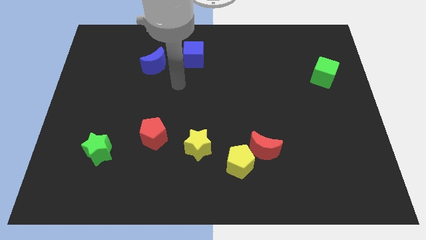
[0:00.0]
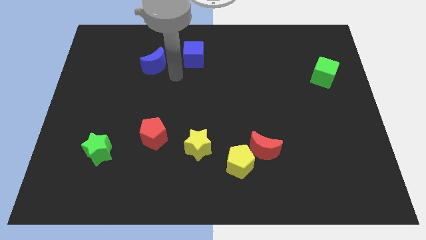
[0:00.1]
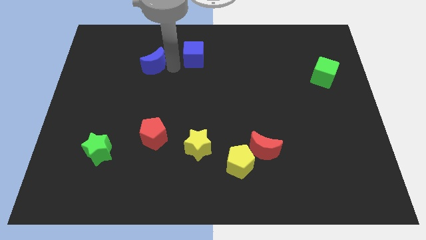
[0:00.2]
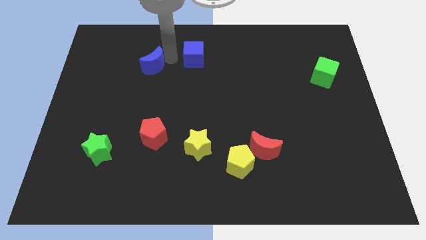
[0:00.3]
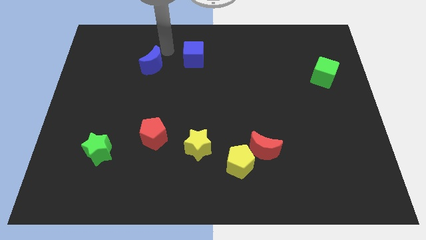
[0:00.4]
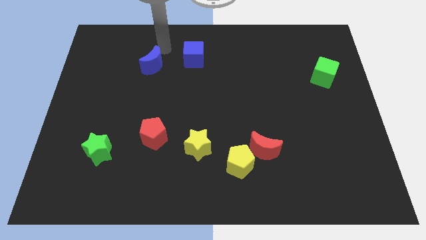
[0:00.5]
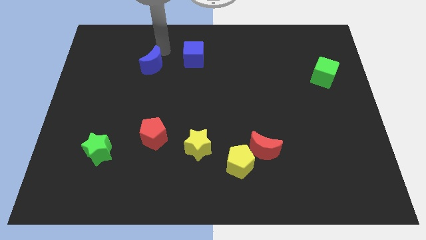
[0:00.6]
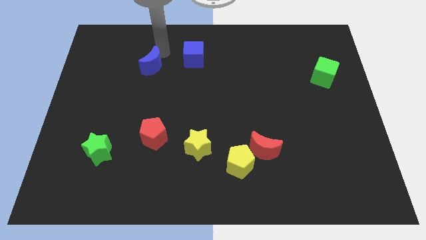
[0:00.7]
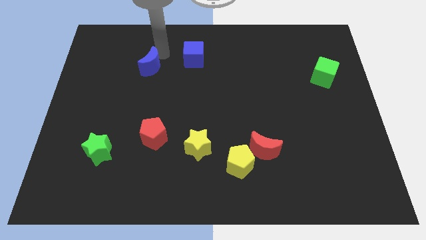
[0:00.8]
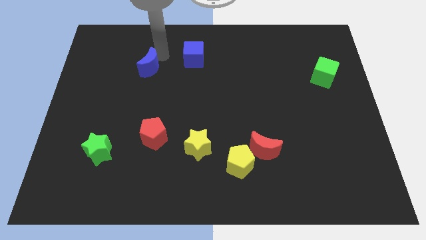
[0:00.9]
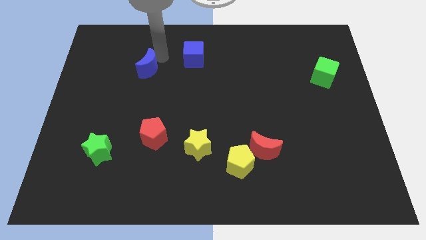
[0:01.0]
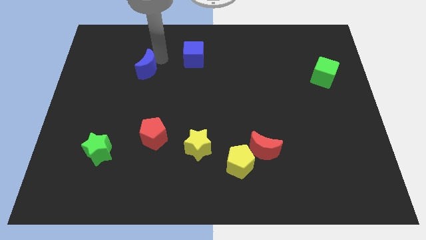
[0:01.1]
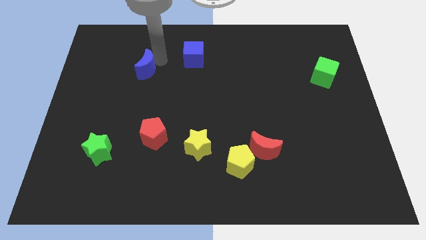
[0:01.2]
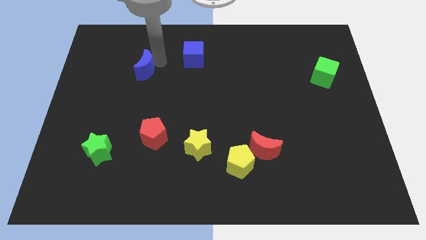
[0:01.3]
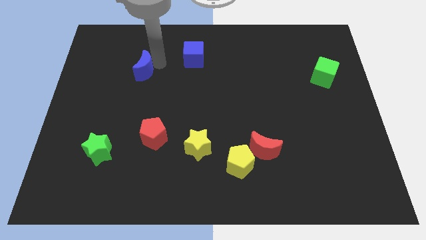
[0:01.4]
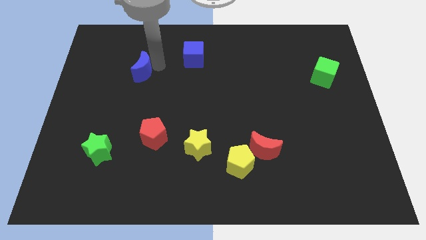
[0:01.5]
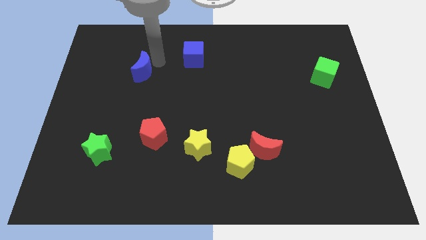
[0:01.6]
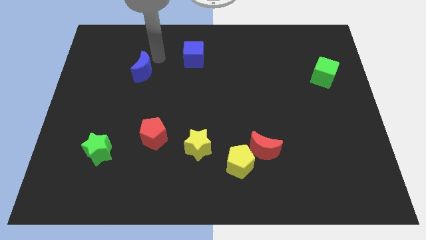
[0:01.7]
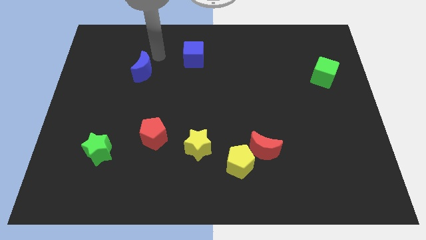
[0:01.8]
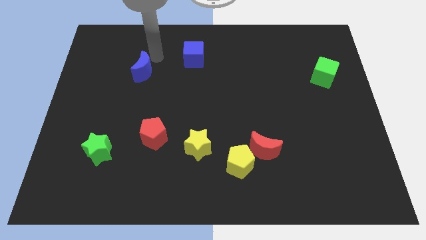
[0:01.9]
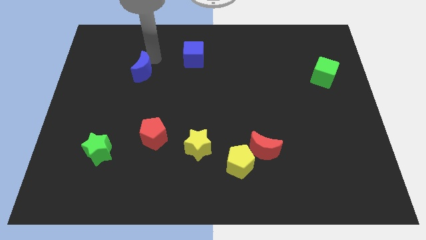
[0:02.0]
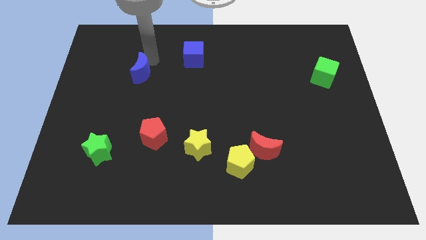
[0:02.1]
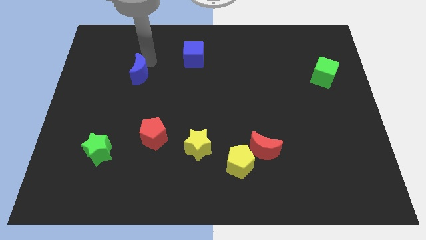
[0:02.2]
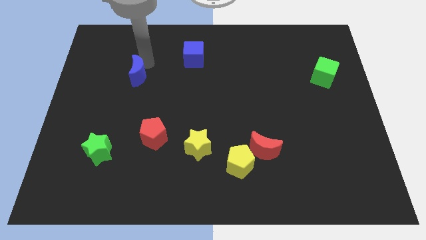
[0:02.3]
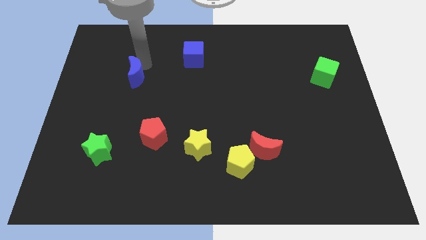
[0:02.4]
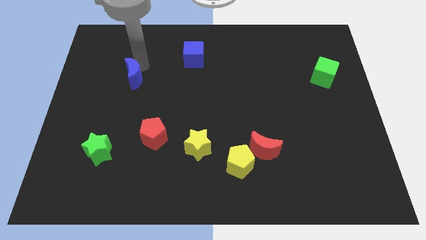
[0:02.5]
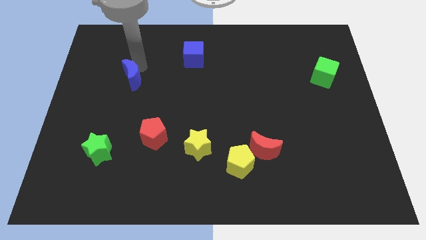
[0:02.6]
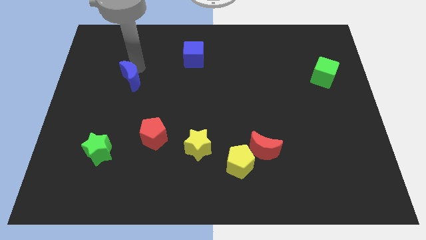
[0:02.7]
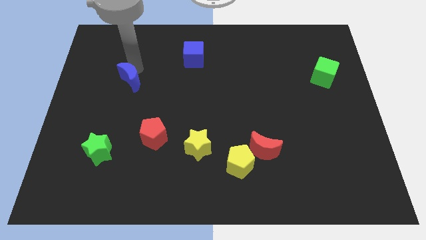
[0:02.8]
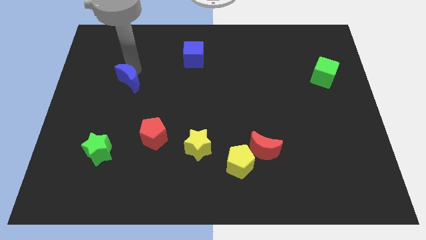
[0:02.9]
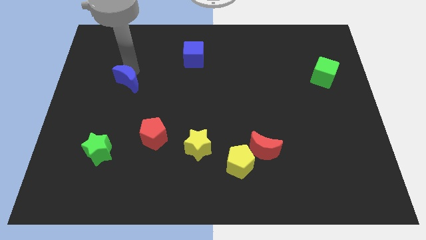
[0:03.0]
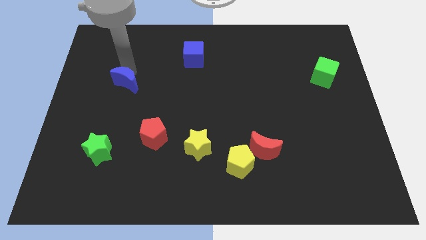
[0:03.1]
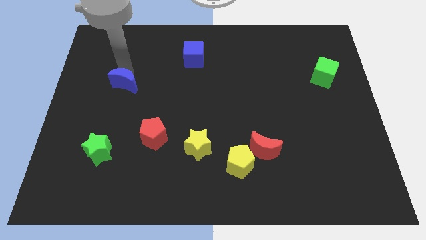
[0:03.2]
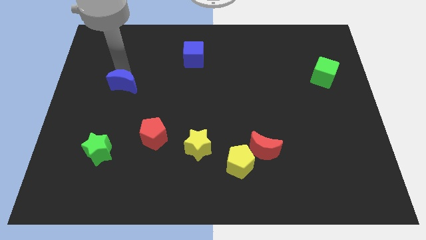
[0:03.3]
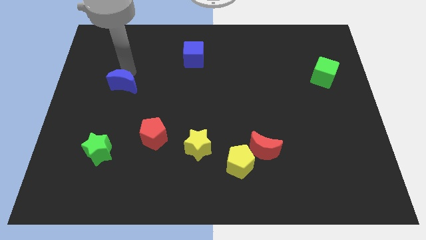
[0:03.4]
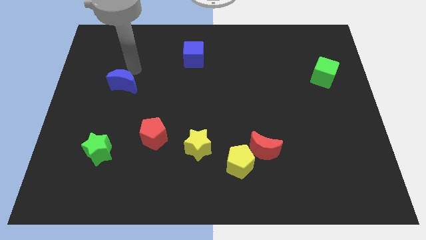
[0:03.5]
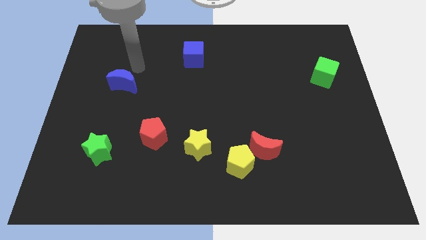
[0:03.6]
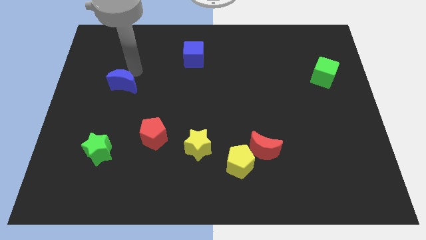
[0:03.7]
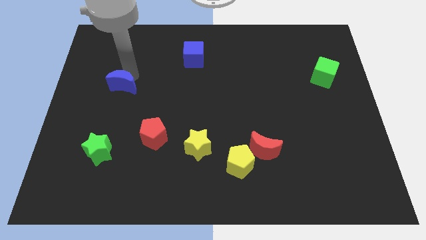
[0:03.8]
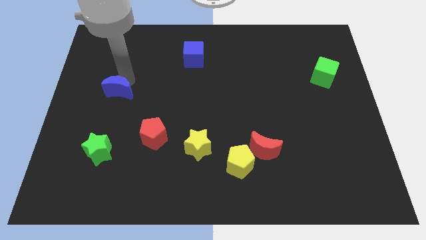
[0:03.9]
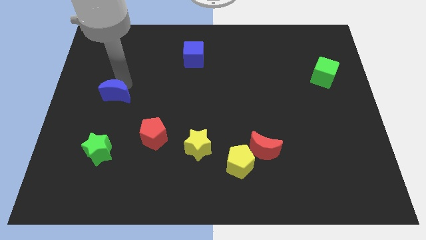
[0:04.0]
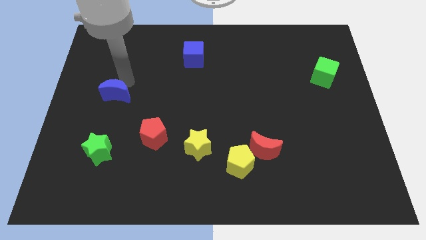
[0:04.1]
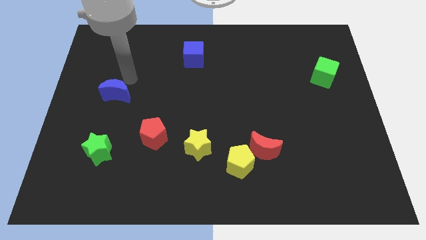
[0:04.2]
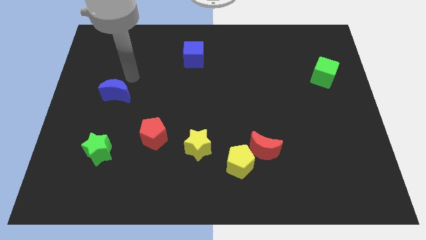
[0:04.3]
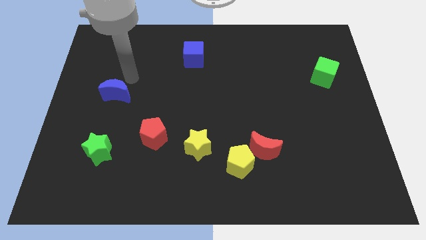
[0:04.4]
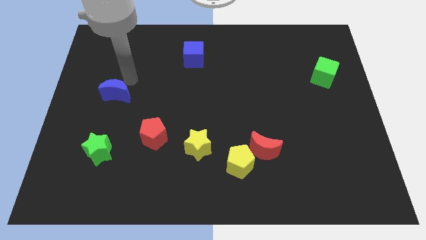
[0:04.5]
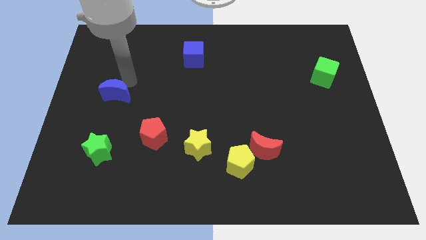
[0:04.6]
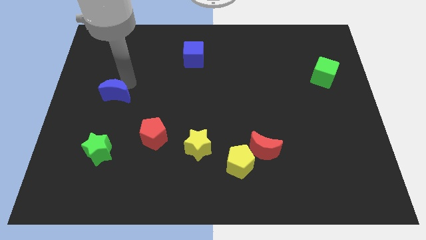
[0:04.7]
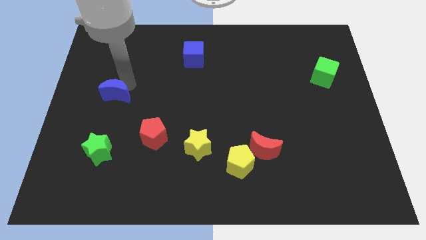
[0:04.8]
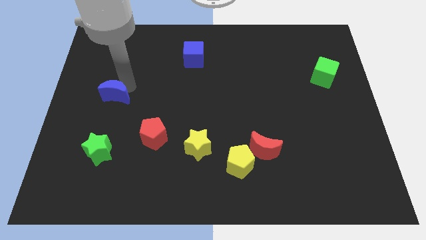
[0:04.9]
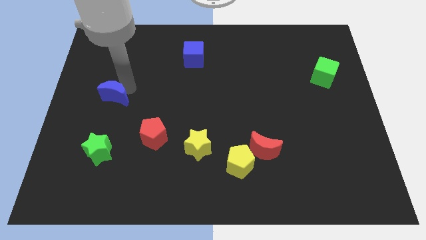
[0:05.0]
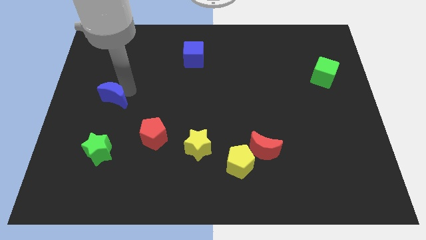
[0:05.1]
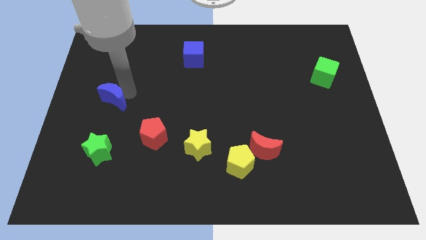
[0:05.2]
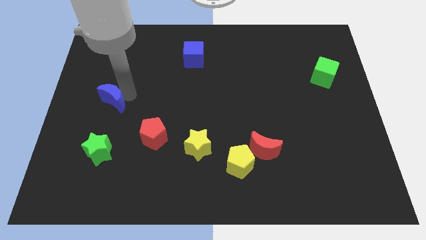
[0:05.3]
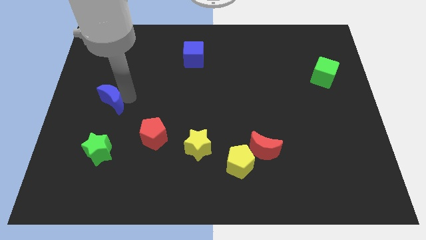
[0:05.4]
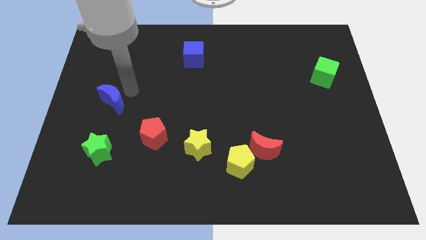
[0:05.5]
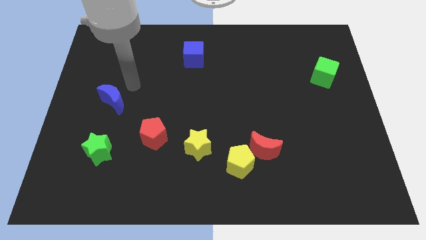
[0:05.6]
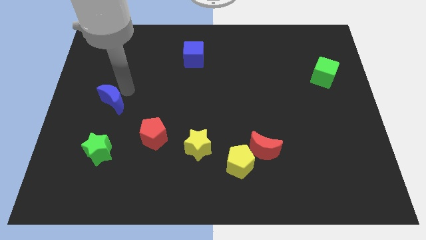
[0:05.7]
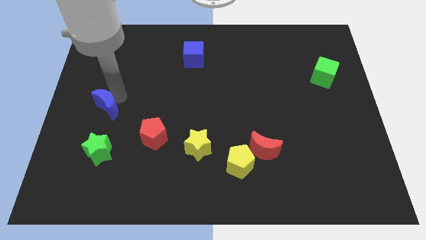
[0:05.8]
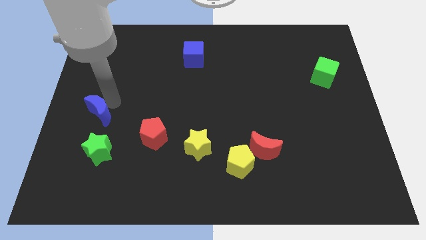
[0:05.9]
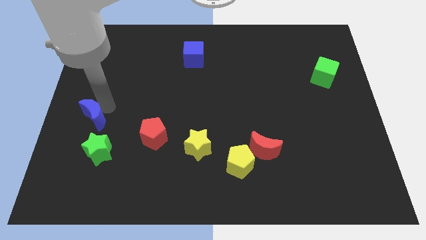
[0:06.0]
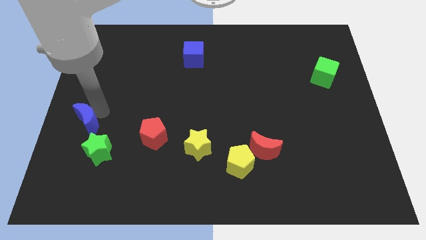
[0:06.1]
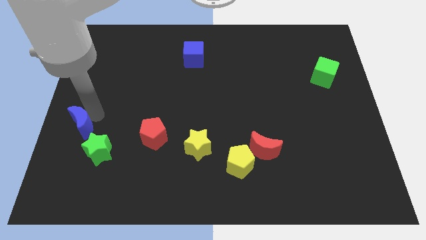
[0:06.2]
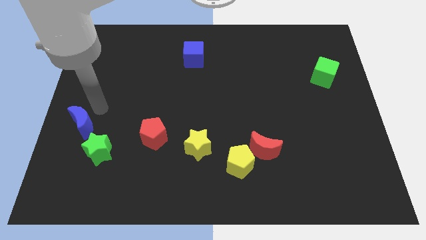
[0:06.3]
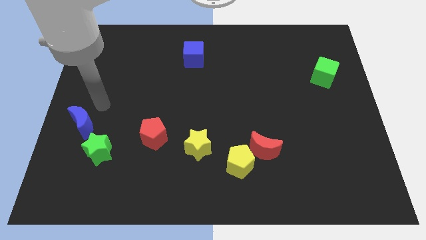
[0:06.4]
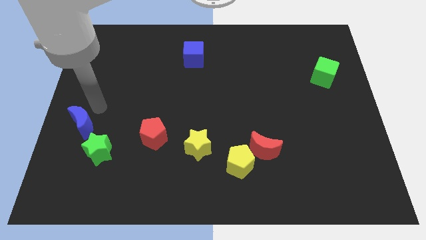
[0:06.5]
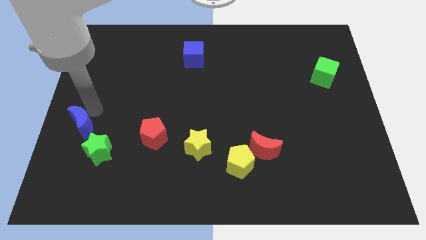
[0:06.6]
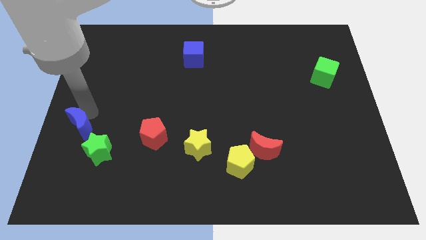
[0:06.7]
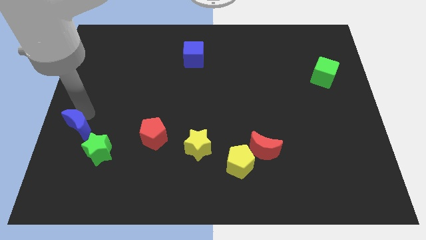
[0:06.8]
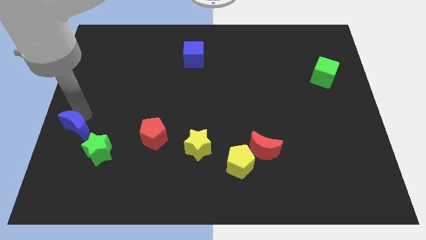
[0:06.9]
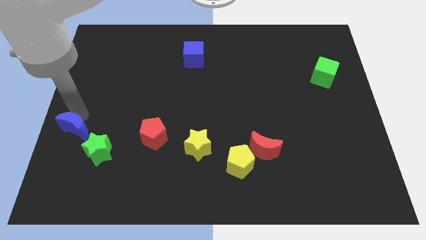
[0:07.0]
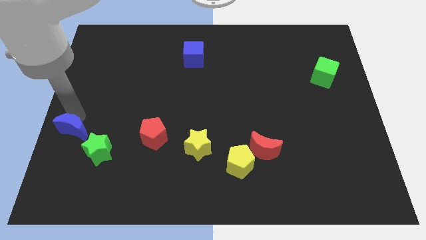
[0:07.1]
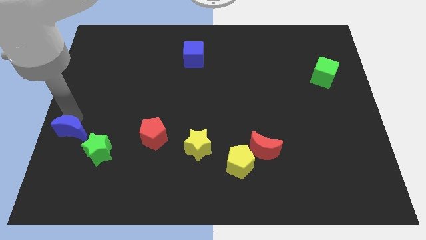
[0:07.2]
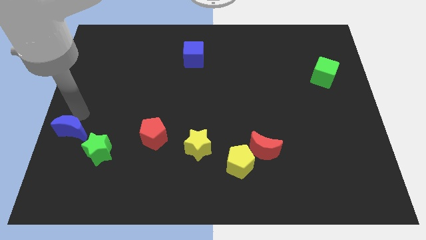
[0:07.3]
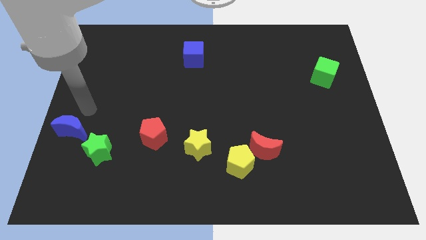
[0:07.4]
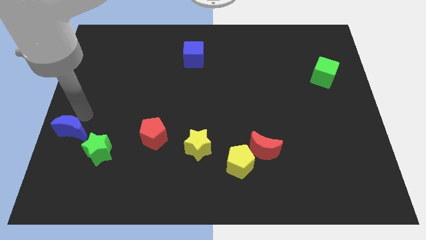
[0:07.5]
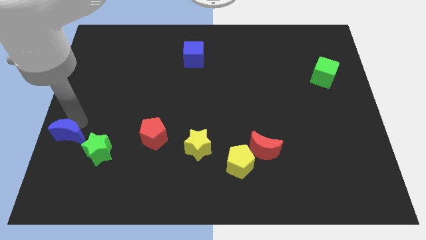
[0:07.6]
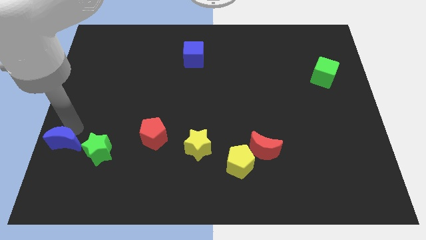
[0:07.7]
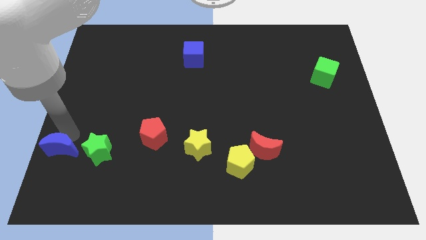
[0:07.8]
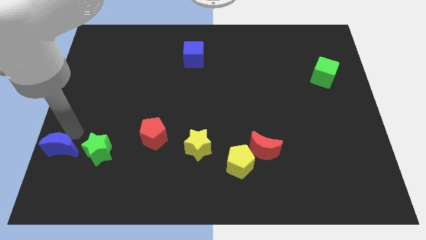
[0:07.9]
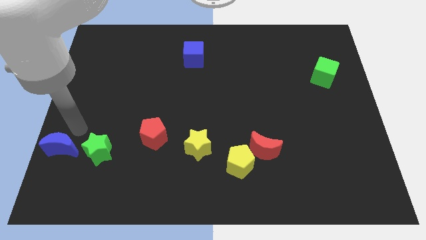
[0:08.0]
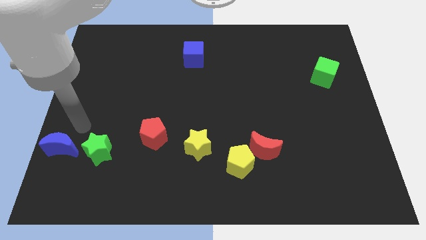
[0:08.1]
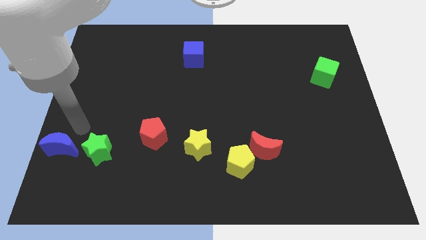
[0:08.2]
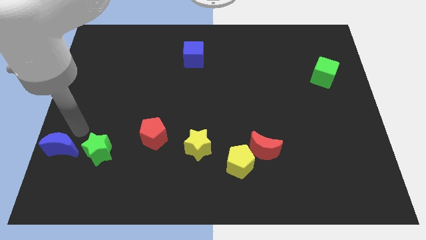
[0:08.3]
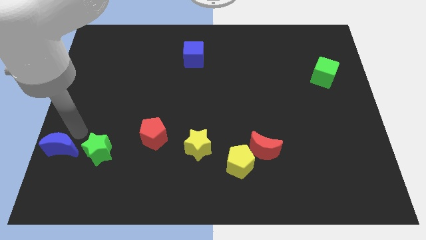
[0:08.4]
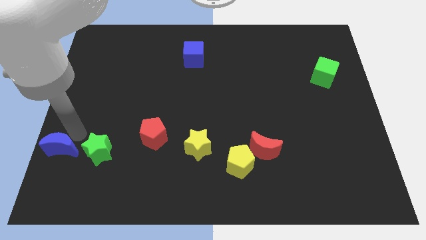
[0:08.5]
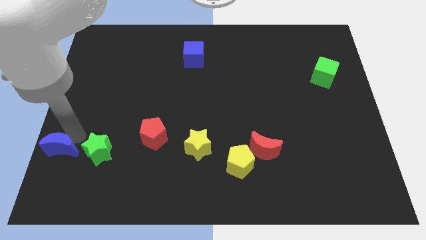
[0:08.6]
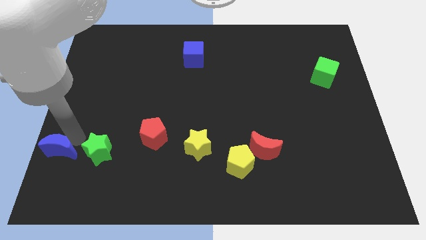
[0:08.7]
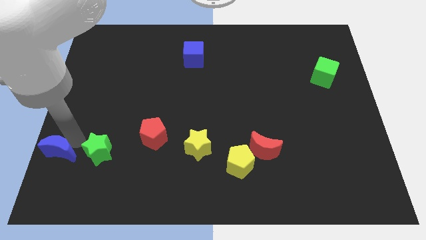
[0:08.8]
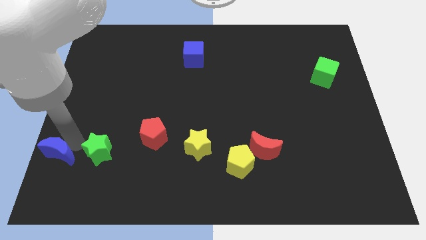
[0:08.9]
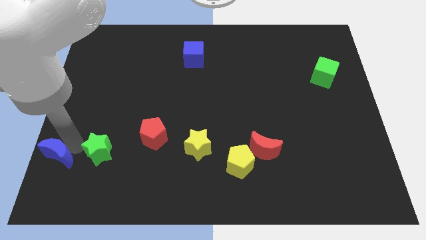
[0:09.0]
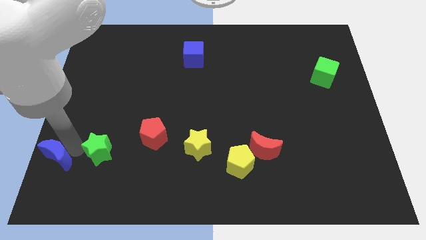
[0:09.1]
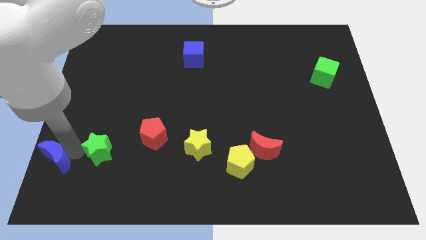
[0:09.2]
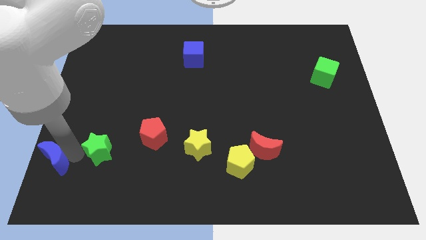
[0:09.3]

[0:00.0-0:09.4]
slide the blue moon to the bottom left
